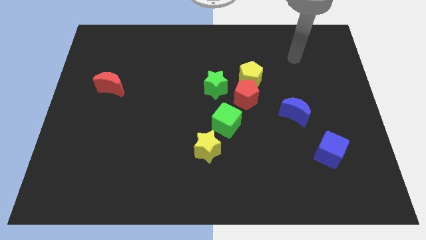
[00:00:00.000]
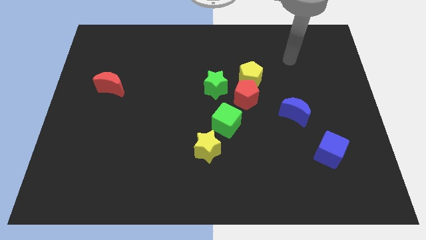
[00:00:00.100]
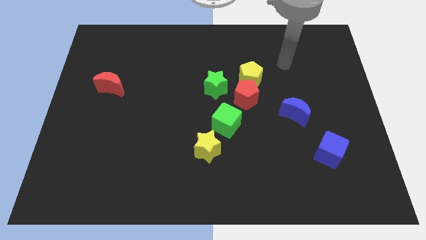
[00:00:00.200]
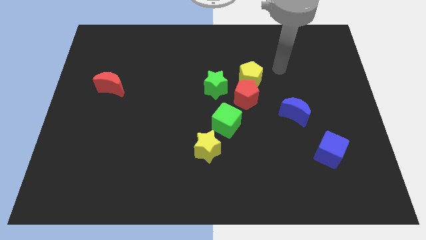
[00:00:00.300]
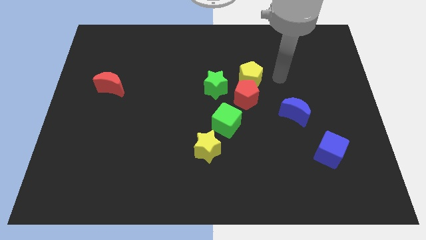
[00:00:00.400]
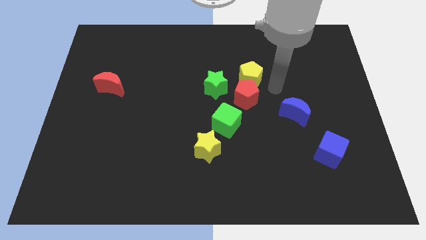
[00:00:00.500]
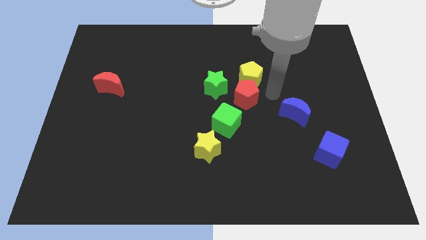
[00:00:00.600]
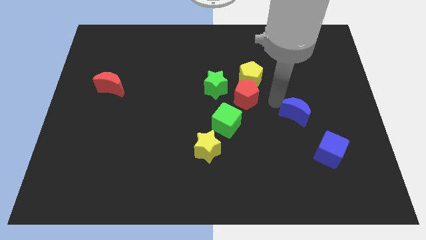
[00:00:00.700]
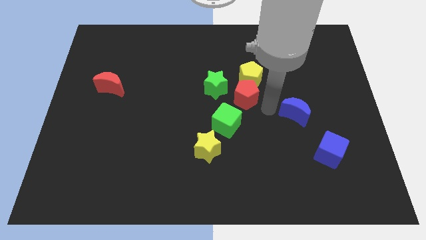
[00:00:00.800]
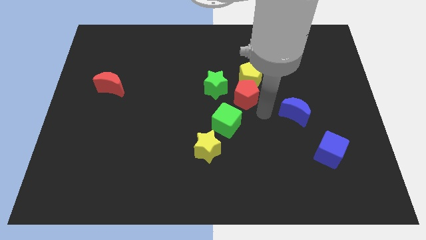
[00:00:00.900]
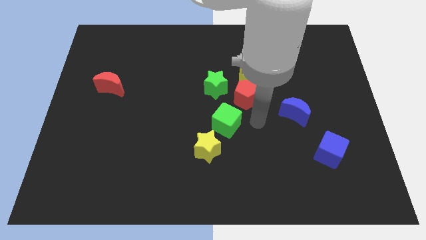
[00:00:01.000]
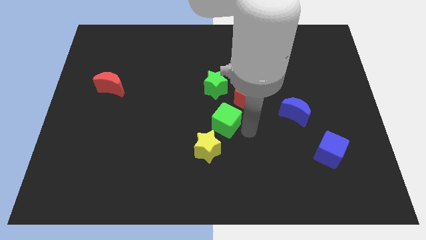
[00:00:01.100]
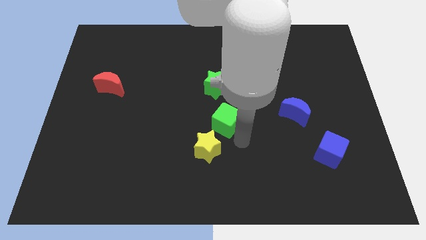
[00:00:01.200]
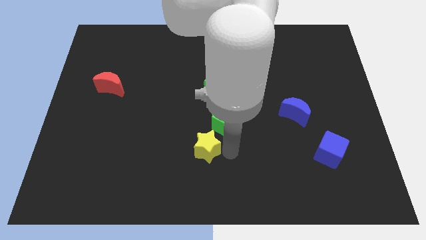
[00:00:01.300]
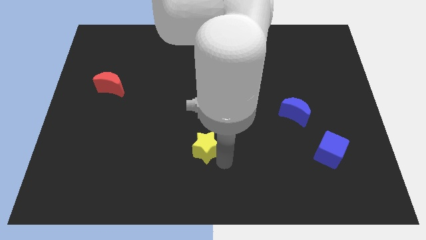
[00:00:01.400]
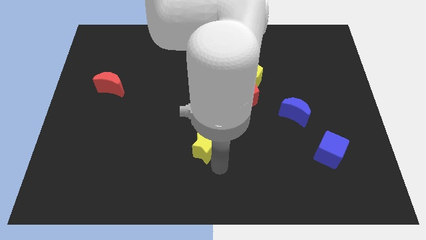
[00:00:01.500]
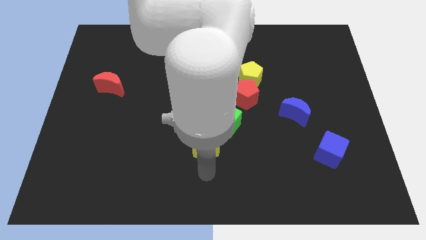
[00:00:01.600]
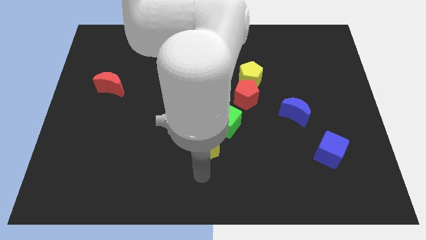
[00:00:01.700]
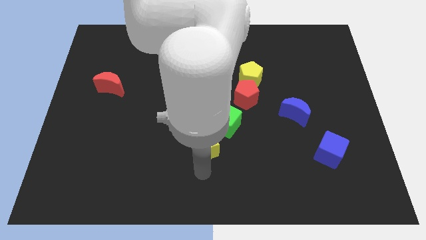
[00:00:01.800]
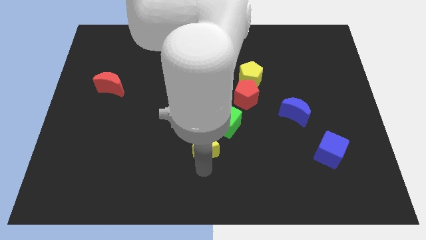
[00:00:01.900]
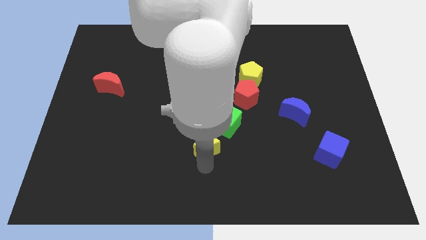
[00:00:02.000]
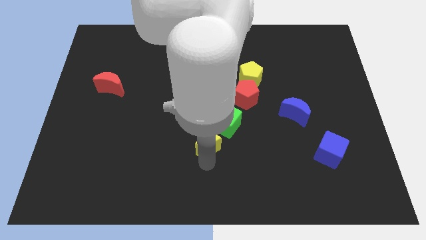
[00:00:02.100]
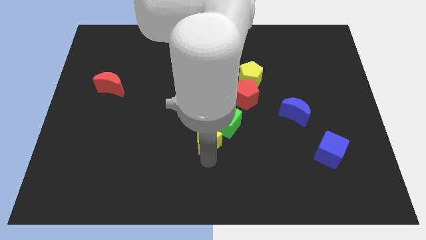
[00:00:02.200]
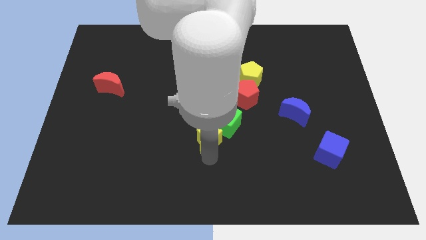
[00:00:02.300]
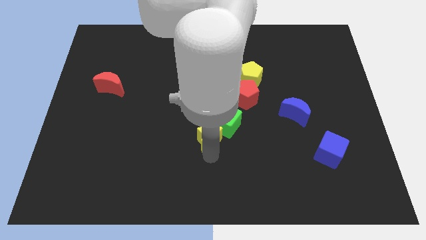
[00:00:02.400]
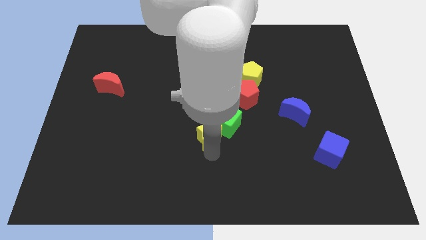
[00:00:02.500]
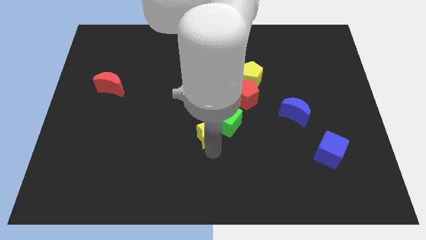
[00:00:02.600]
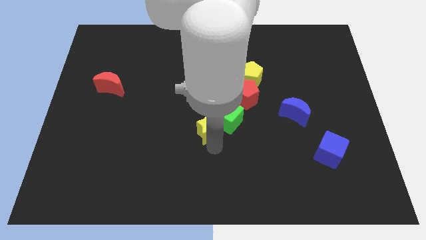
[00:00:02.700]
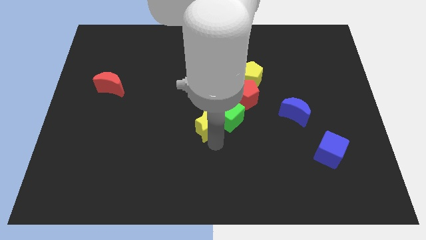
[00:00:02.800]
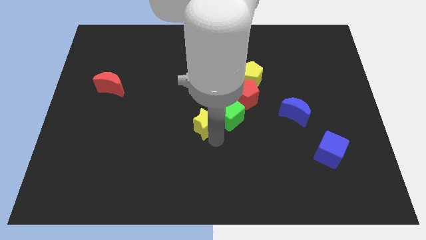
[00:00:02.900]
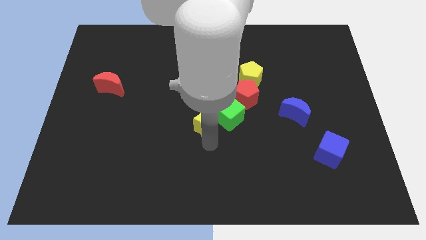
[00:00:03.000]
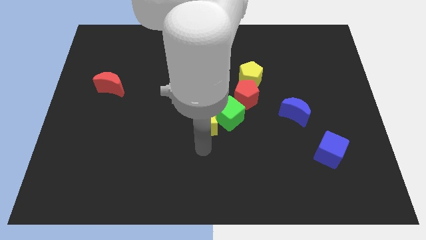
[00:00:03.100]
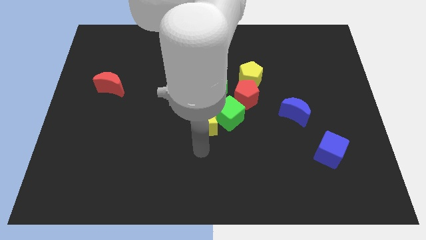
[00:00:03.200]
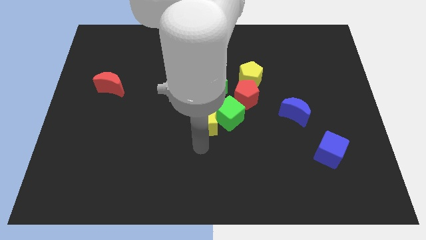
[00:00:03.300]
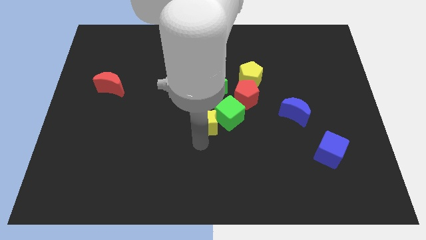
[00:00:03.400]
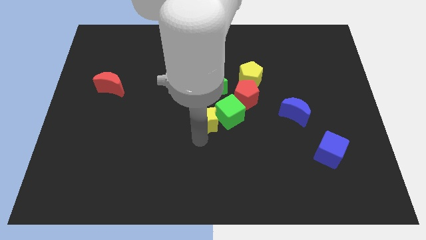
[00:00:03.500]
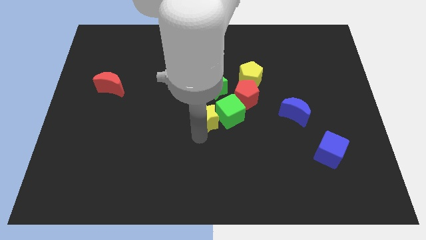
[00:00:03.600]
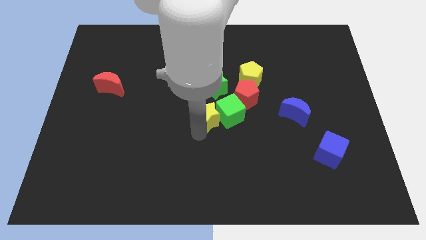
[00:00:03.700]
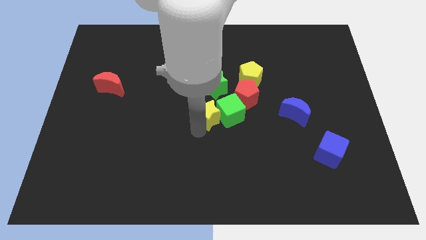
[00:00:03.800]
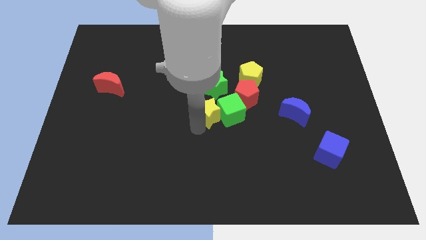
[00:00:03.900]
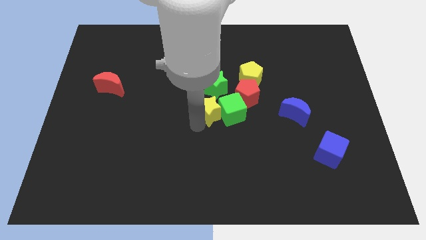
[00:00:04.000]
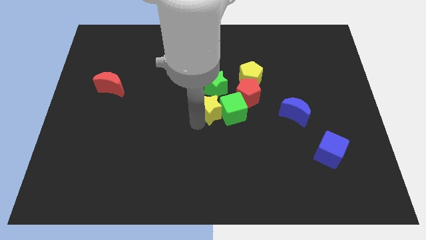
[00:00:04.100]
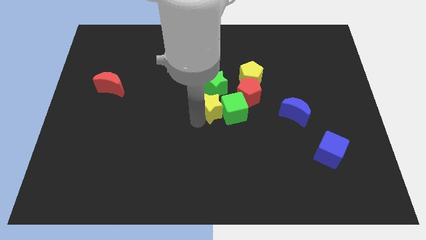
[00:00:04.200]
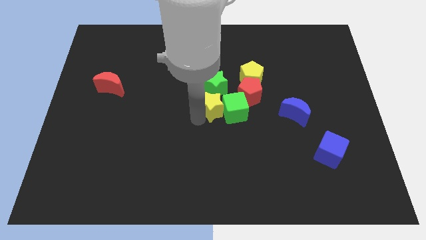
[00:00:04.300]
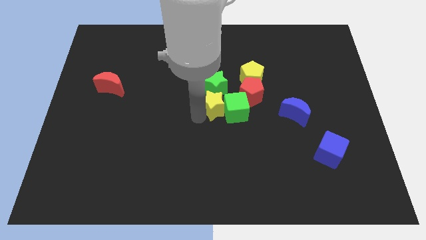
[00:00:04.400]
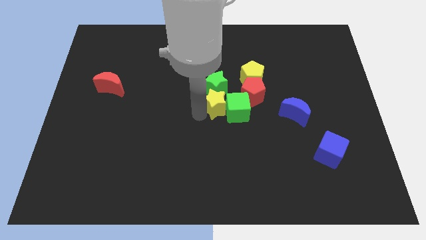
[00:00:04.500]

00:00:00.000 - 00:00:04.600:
slide the yellow star to the green star

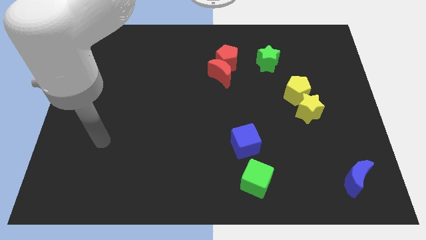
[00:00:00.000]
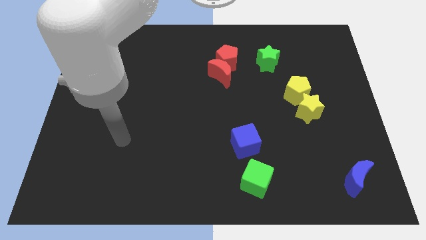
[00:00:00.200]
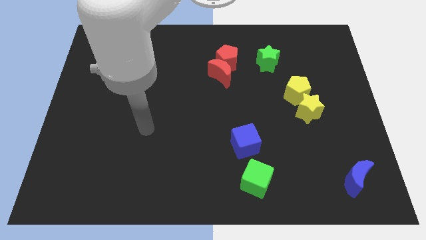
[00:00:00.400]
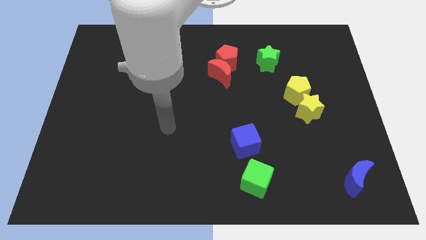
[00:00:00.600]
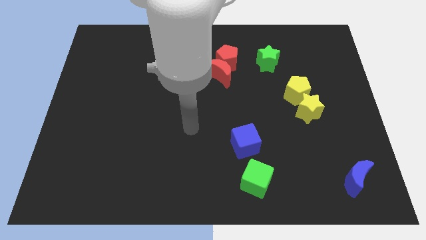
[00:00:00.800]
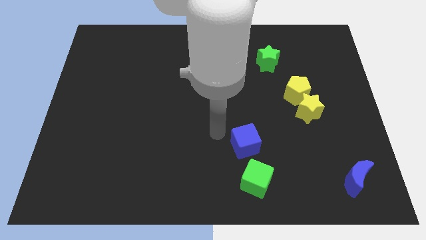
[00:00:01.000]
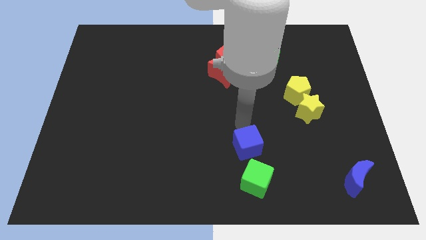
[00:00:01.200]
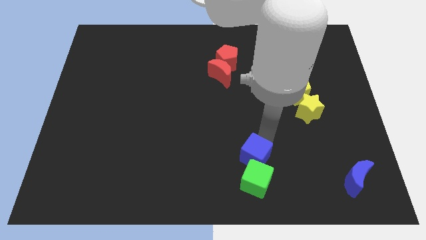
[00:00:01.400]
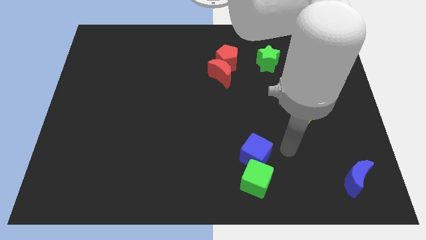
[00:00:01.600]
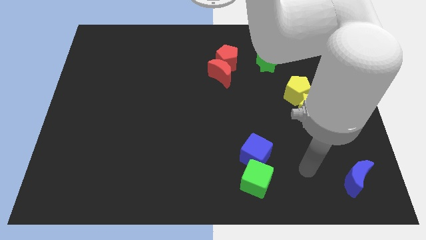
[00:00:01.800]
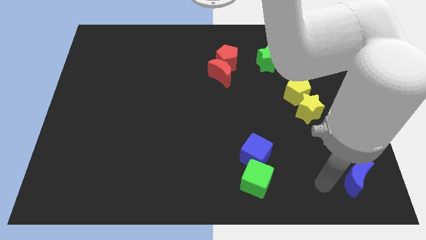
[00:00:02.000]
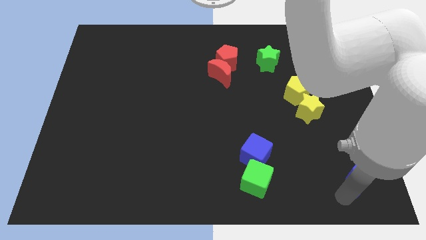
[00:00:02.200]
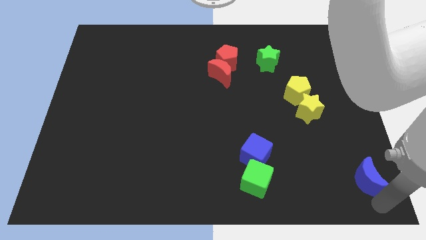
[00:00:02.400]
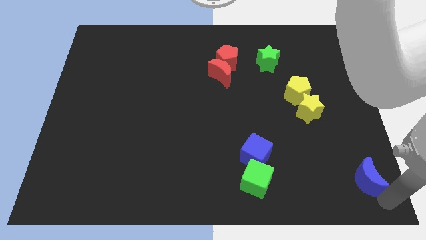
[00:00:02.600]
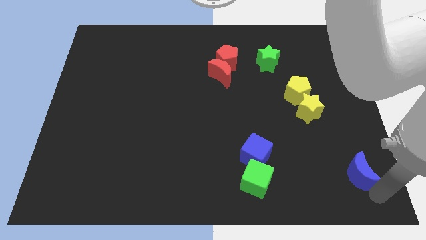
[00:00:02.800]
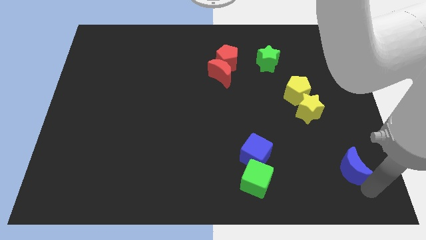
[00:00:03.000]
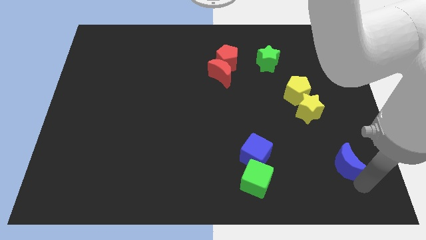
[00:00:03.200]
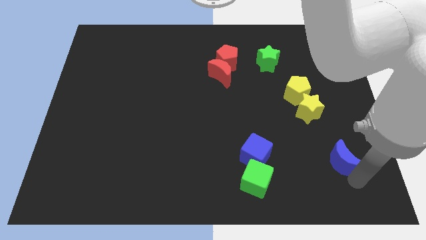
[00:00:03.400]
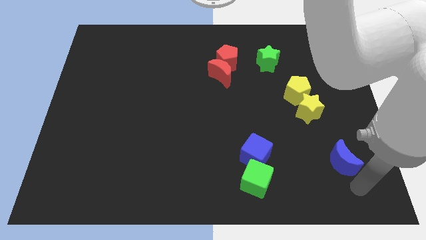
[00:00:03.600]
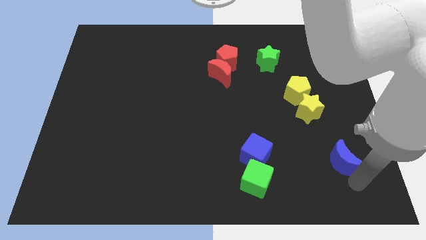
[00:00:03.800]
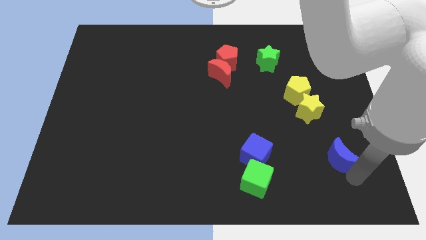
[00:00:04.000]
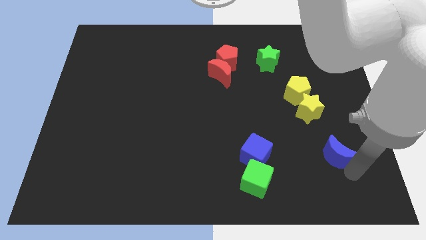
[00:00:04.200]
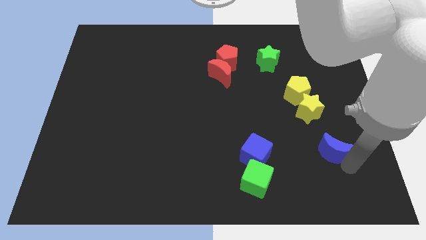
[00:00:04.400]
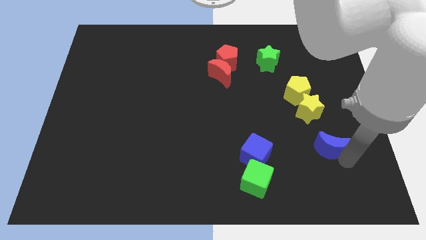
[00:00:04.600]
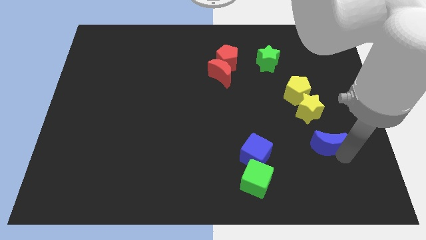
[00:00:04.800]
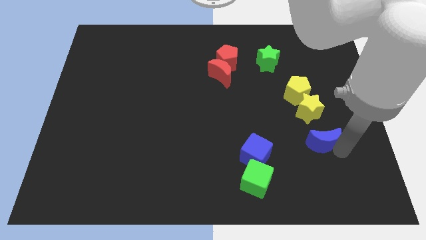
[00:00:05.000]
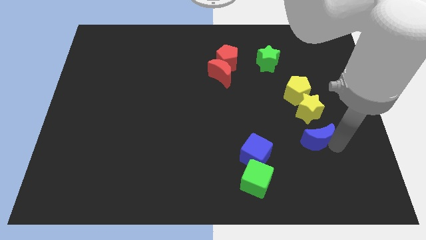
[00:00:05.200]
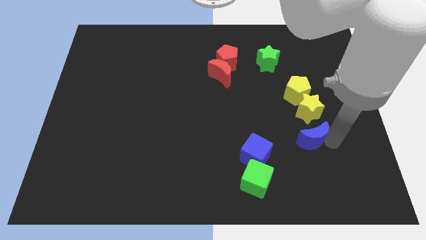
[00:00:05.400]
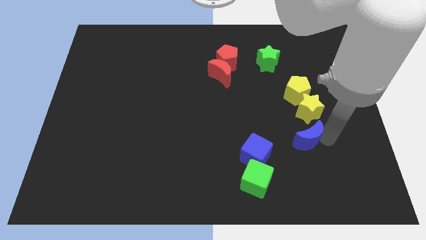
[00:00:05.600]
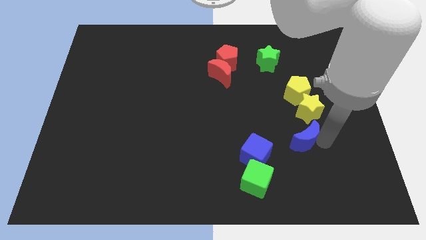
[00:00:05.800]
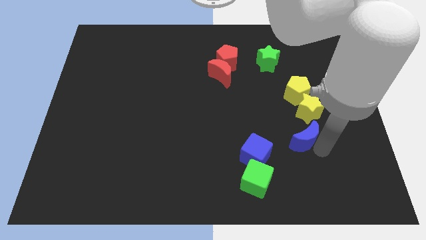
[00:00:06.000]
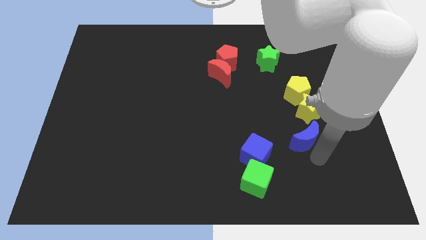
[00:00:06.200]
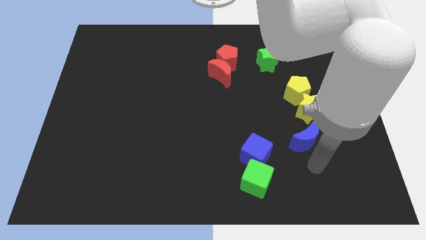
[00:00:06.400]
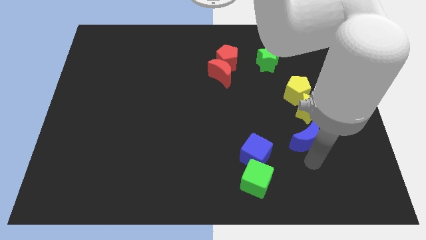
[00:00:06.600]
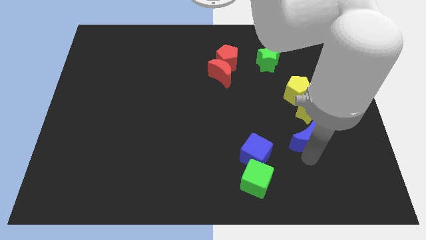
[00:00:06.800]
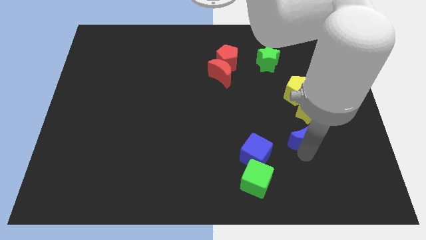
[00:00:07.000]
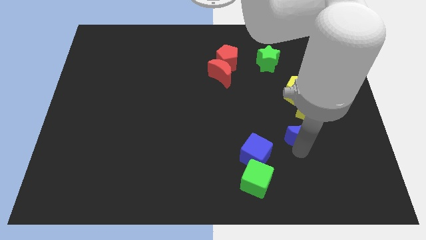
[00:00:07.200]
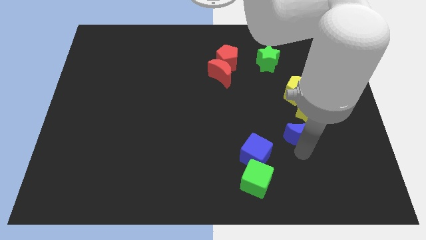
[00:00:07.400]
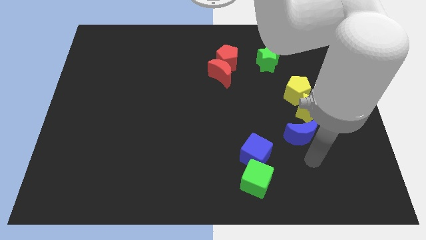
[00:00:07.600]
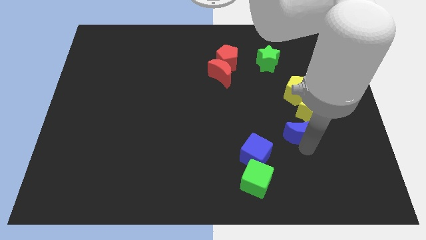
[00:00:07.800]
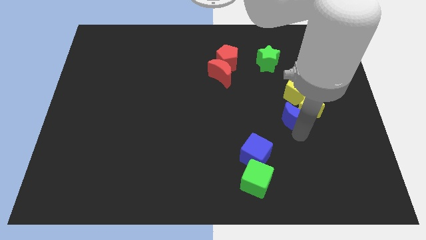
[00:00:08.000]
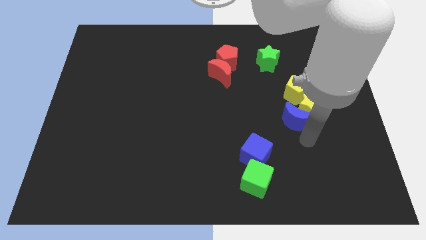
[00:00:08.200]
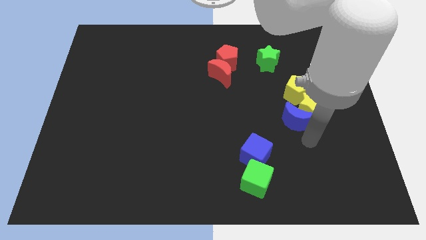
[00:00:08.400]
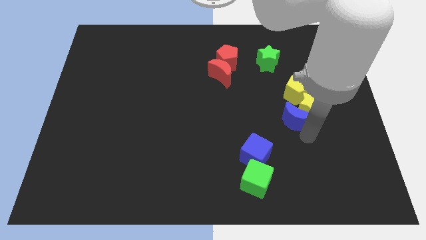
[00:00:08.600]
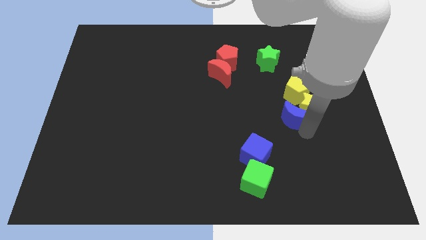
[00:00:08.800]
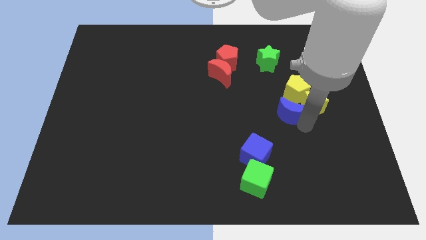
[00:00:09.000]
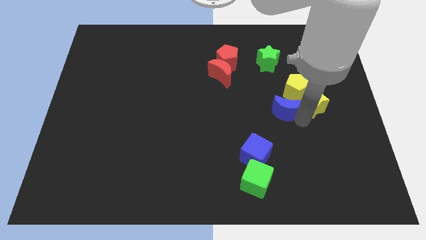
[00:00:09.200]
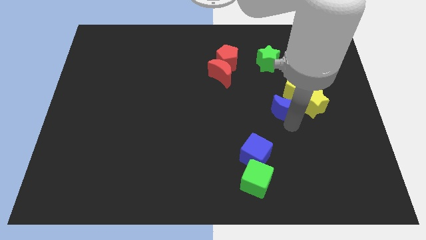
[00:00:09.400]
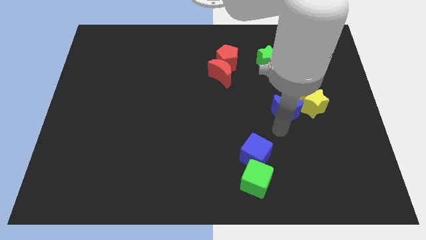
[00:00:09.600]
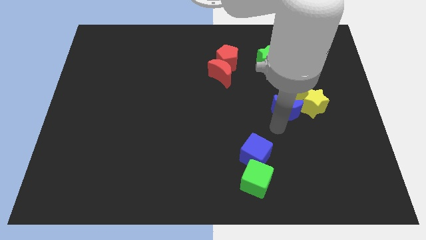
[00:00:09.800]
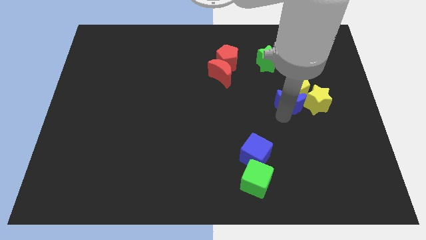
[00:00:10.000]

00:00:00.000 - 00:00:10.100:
move the blue moon to the yellow pentagon
